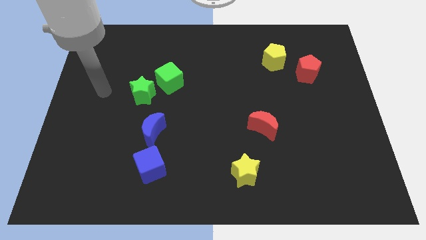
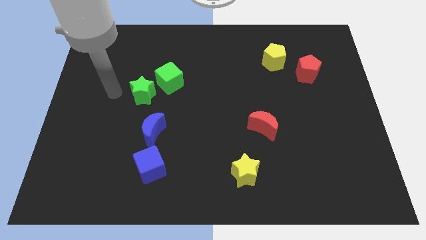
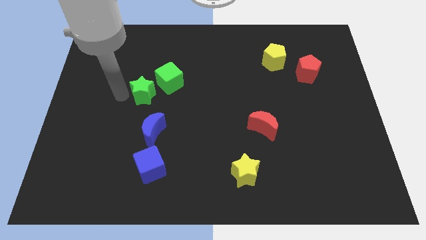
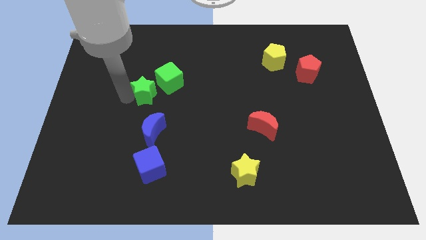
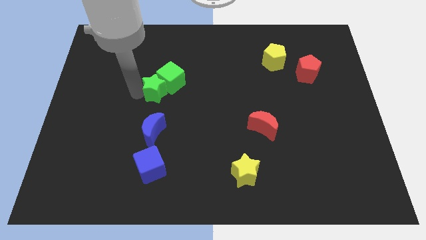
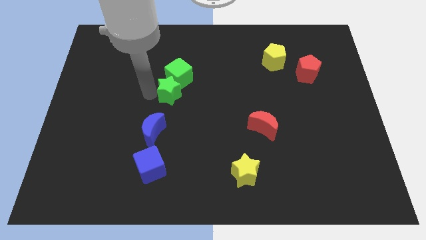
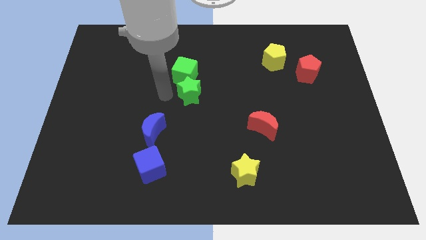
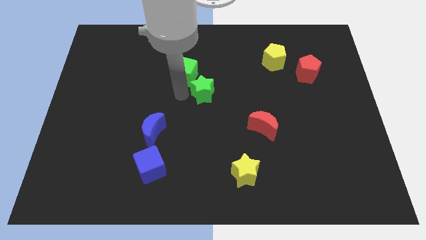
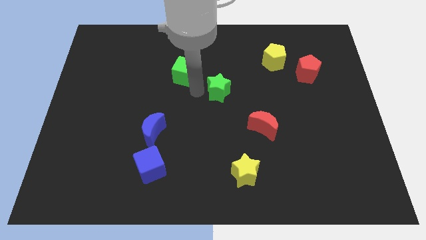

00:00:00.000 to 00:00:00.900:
separate the green cube from the green star

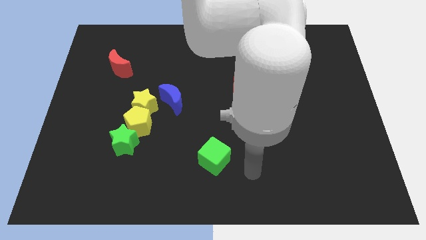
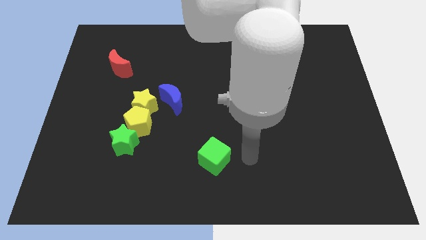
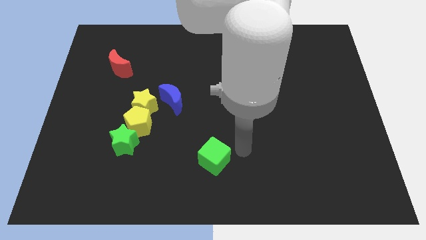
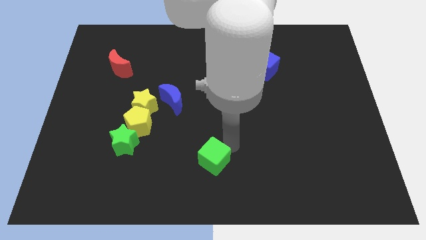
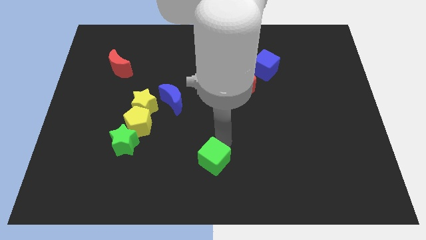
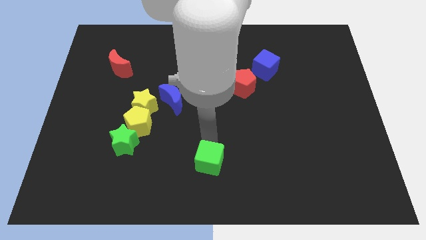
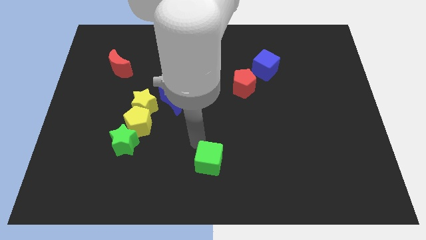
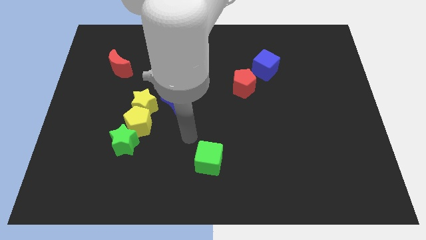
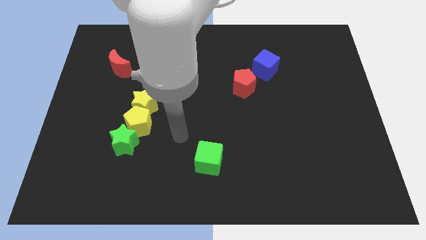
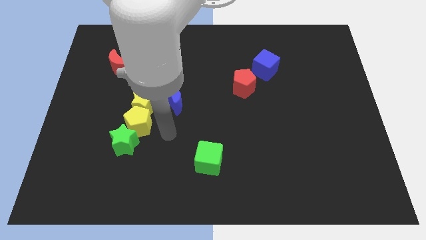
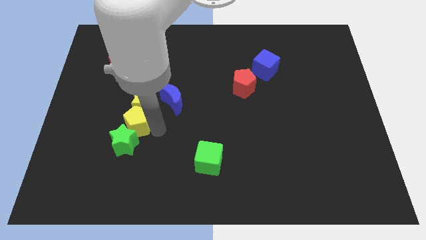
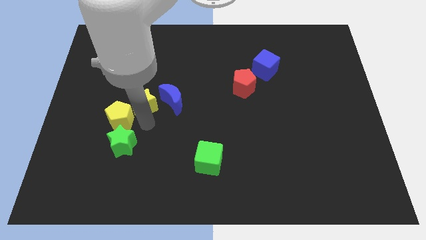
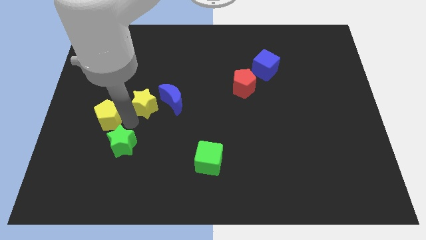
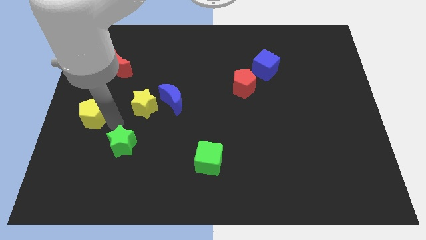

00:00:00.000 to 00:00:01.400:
move the green star away from the yellow pentagon

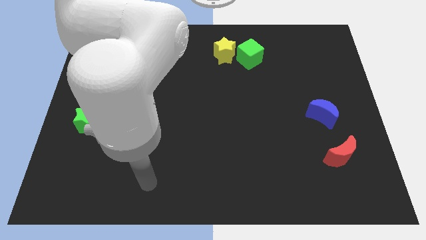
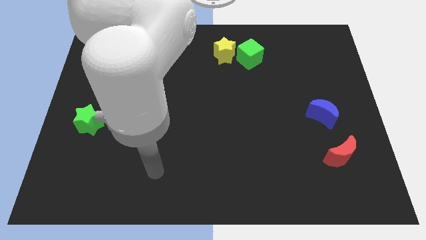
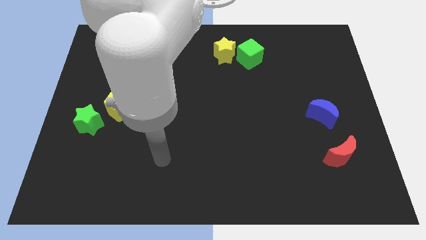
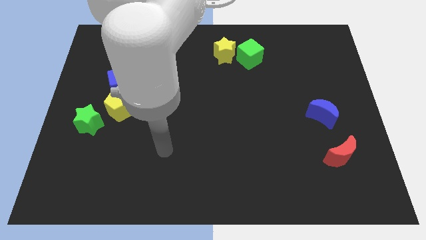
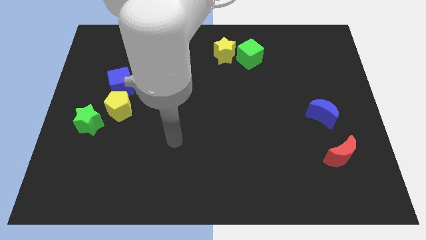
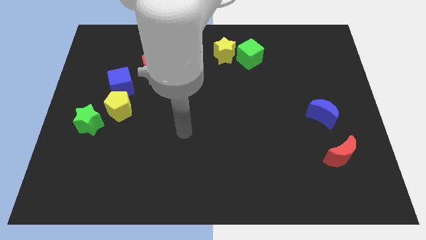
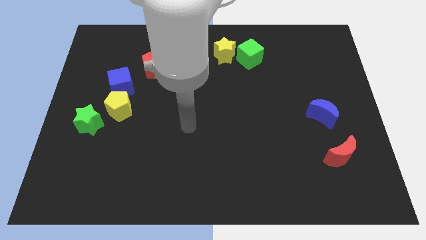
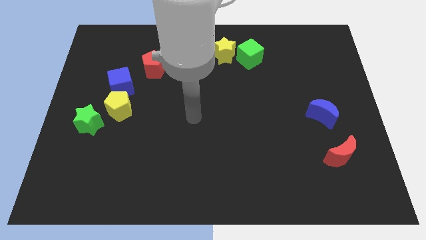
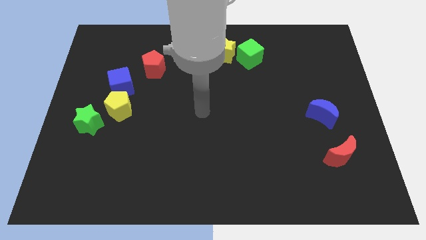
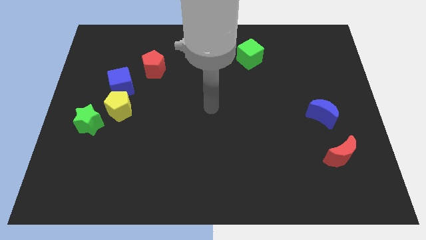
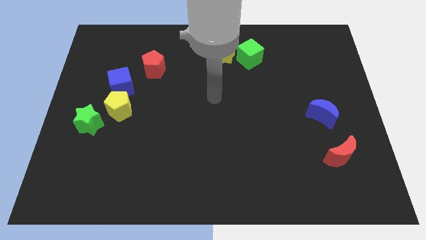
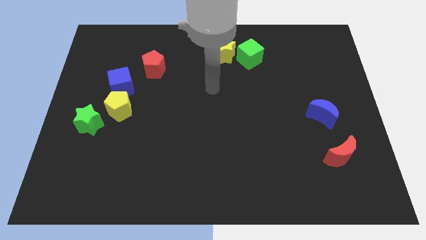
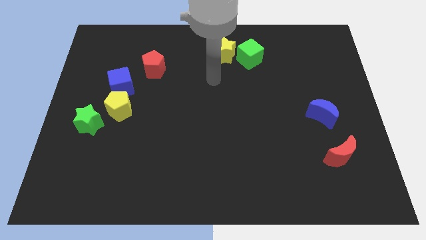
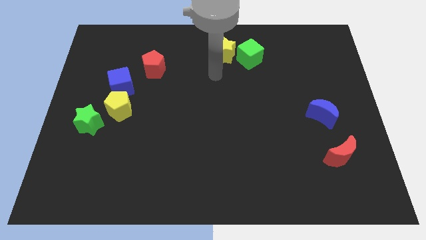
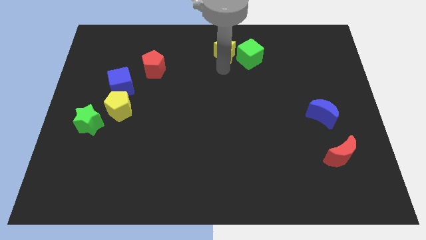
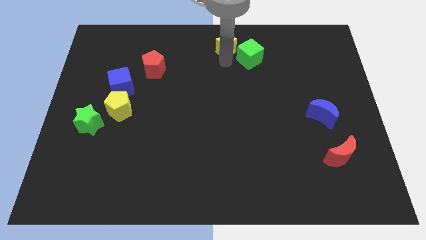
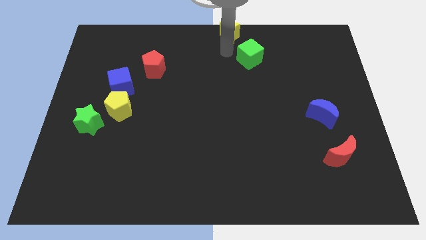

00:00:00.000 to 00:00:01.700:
move the green cube away from the yellow star

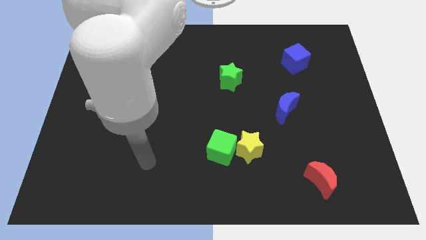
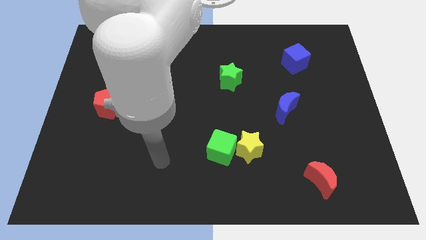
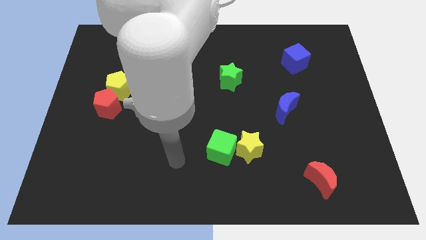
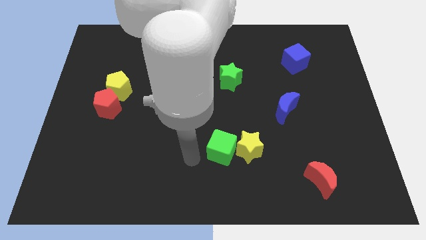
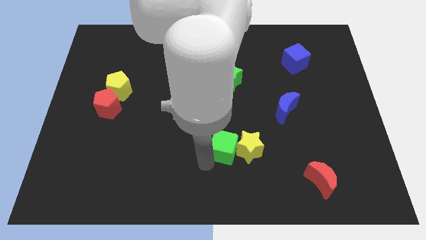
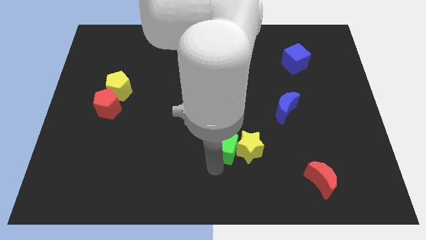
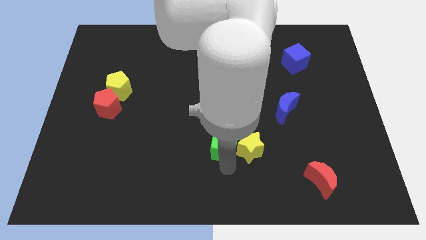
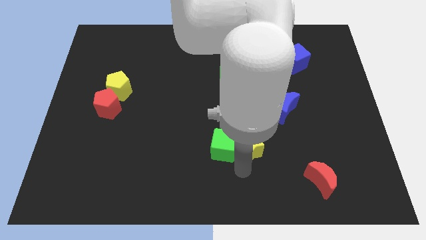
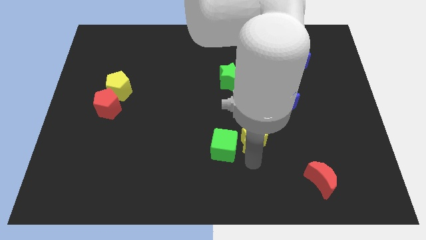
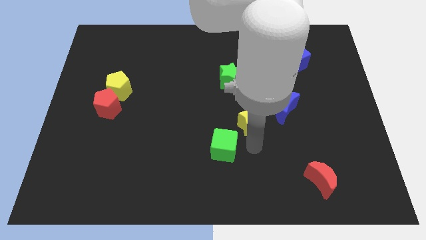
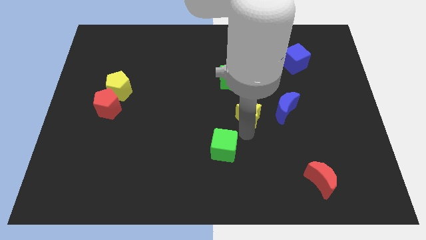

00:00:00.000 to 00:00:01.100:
pull the green cube apart from the yellow star

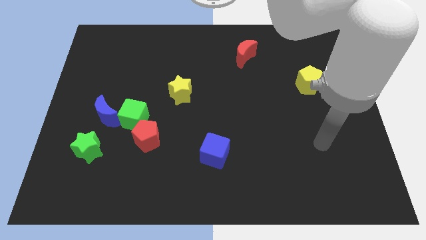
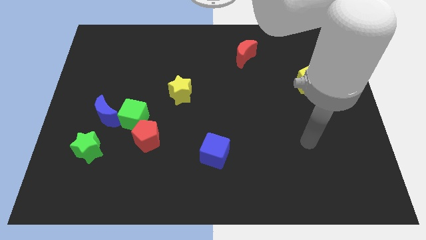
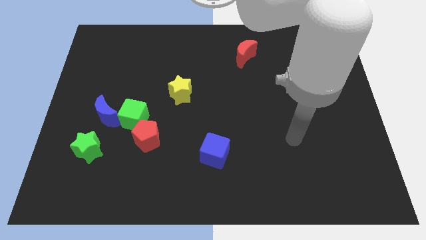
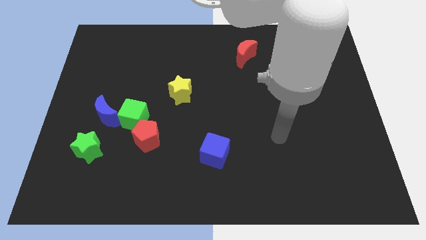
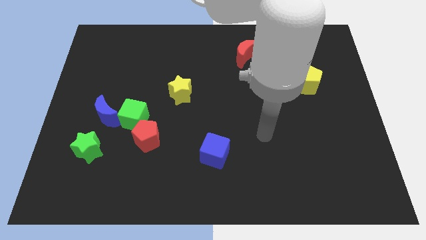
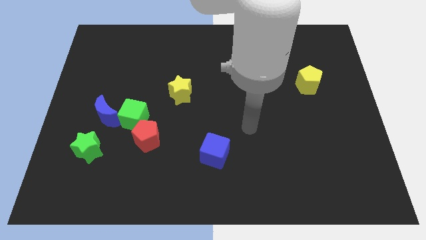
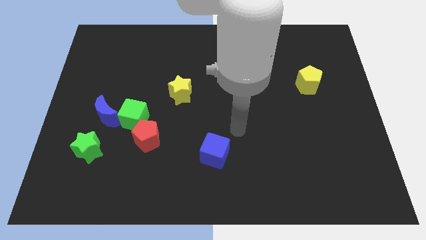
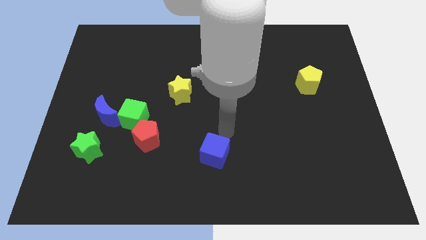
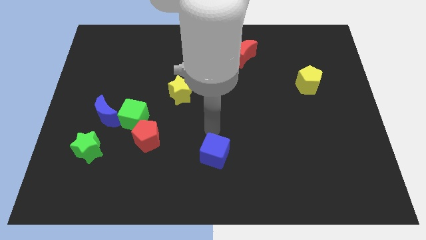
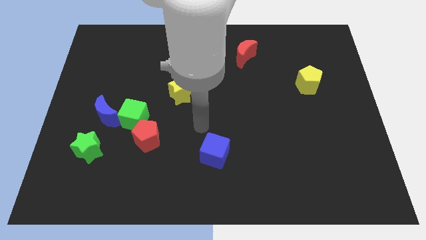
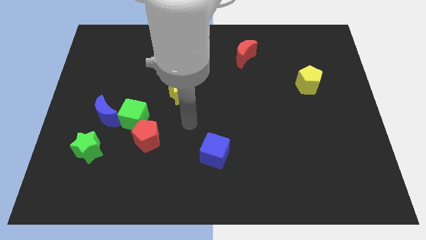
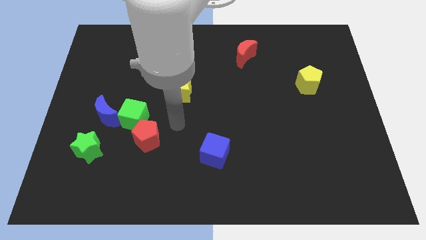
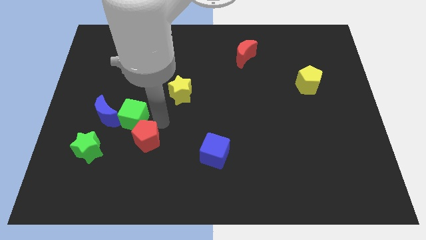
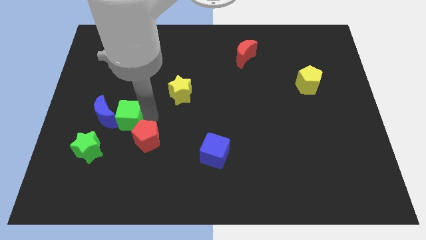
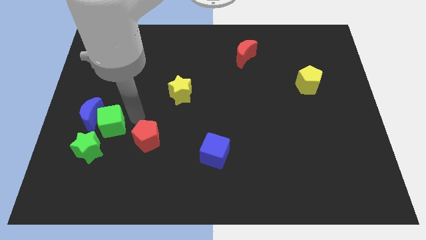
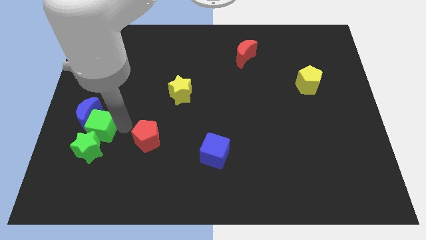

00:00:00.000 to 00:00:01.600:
pull the red pentagon apart from the green cube

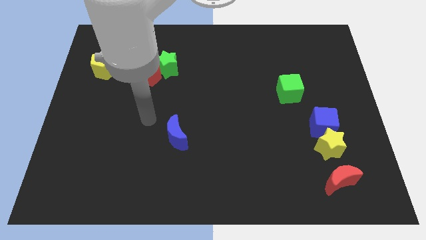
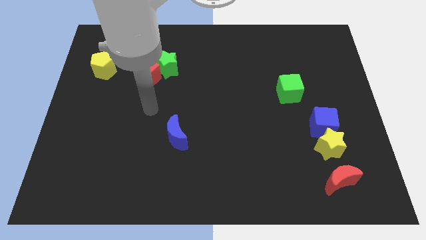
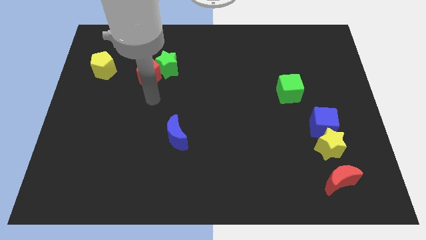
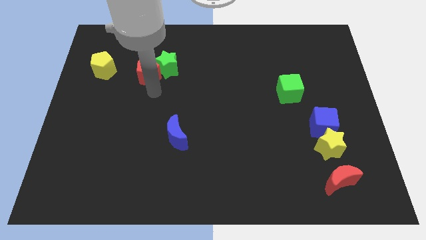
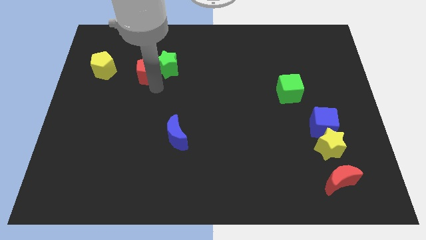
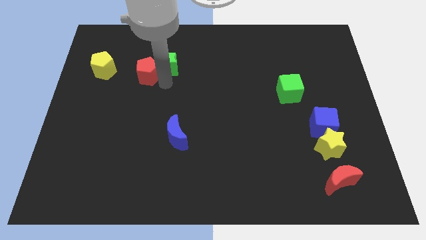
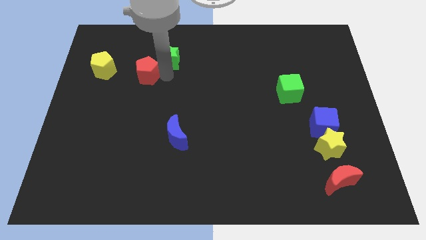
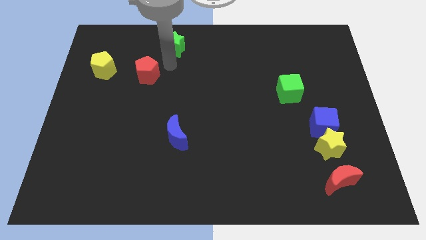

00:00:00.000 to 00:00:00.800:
move the red pentagon away from the green star

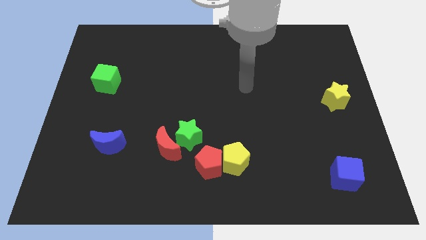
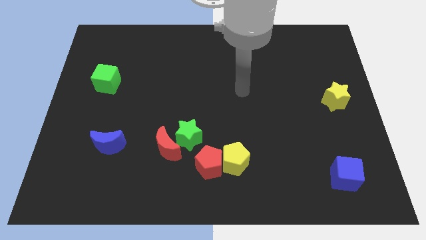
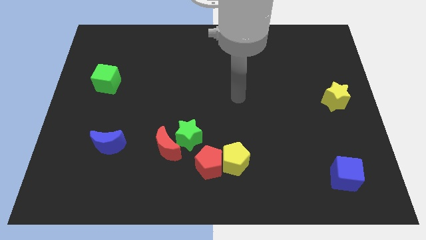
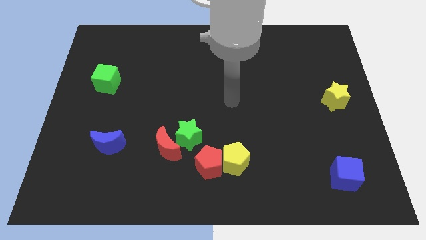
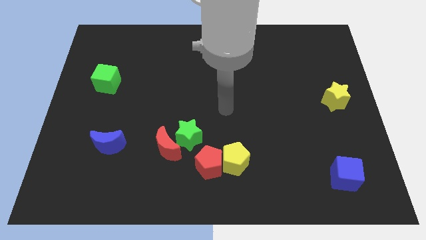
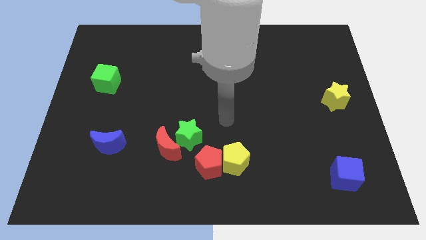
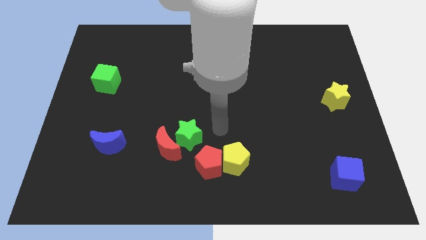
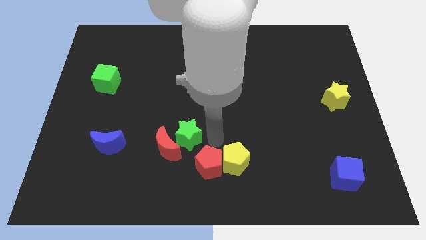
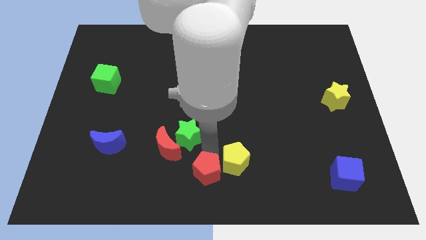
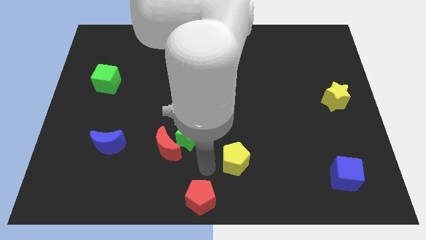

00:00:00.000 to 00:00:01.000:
separate the yellow pentagon from the red pentagon

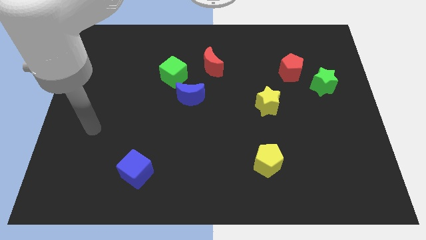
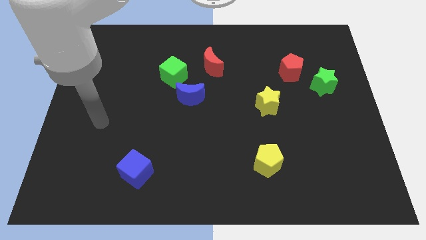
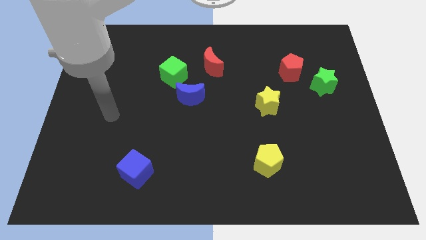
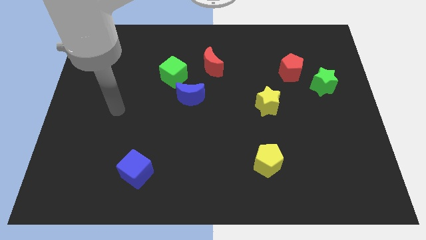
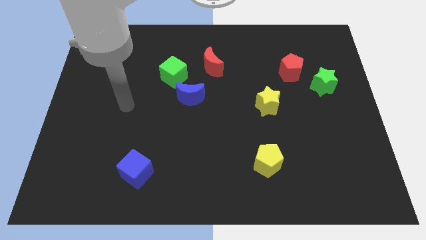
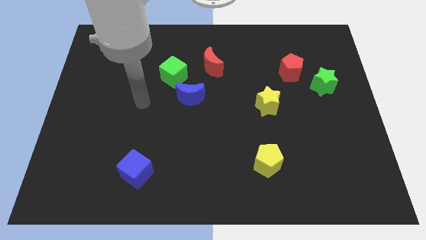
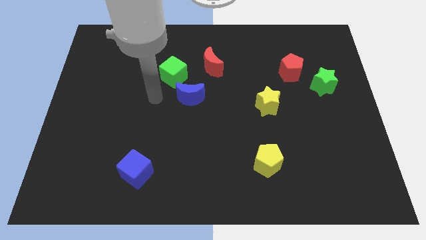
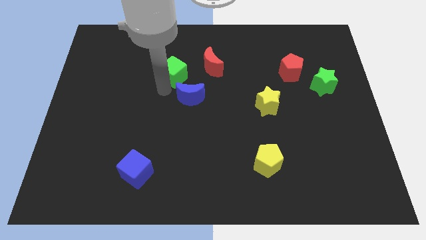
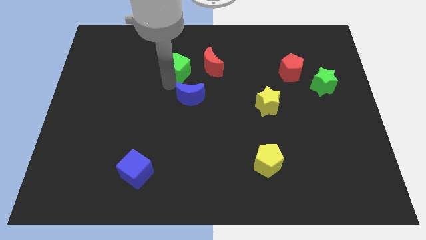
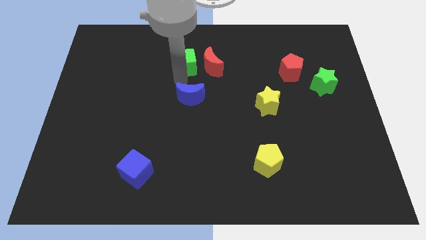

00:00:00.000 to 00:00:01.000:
move the blue moon away from the green cube
